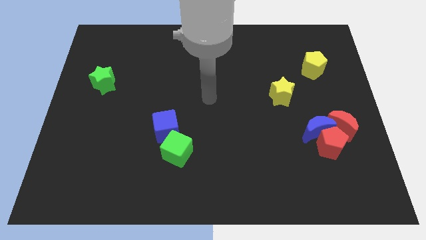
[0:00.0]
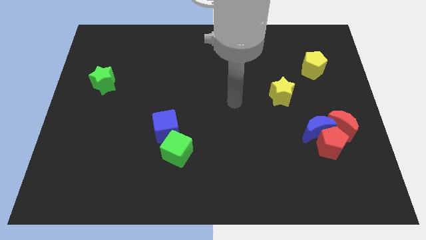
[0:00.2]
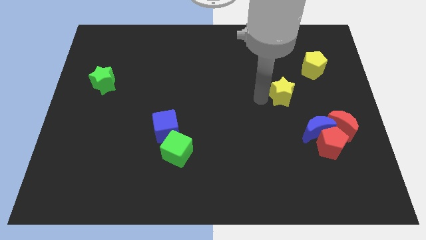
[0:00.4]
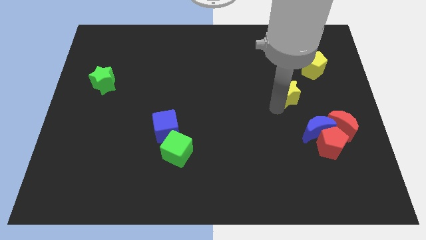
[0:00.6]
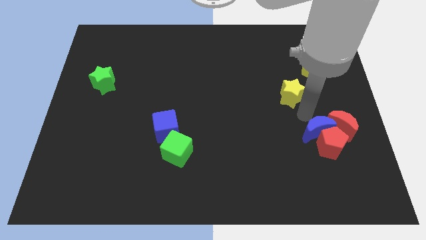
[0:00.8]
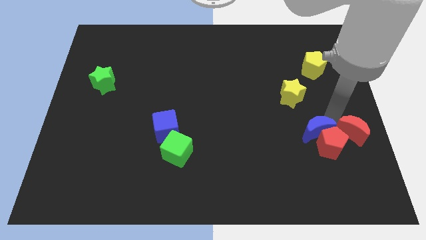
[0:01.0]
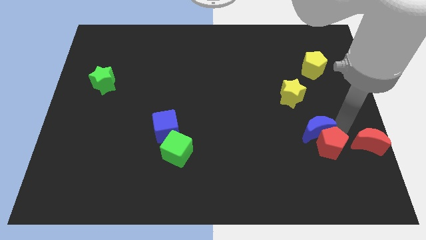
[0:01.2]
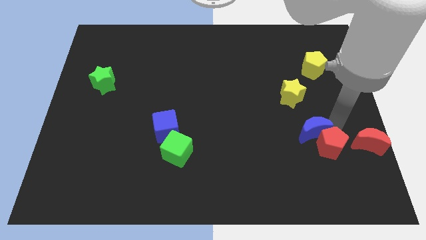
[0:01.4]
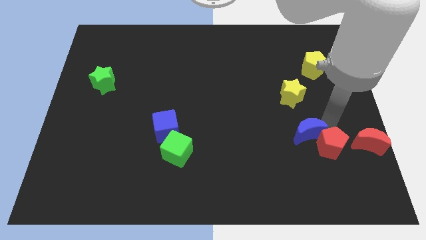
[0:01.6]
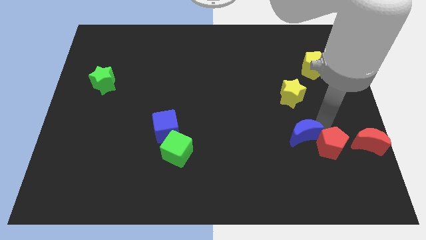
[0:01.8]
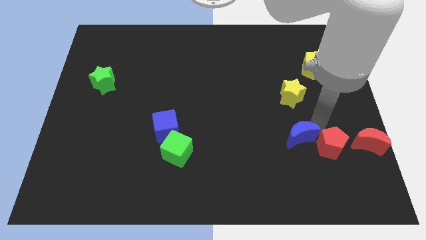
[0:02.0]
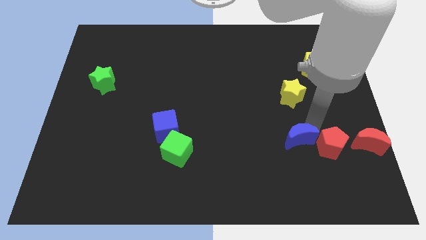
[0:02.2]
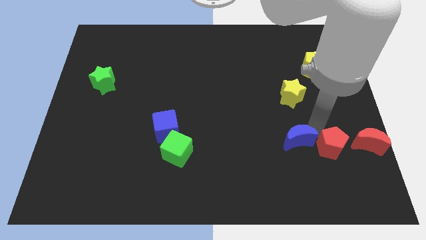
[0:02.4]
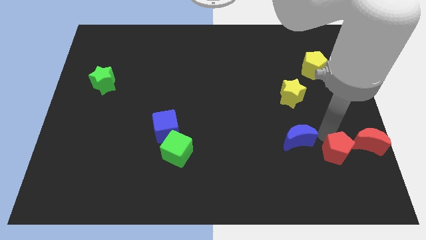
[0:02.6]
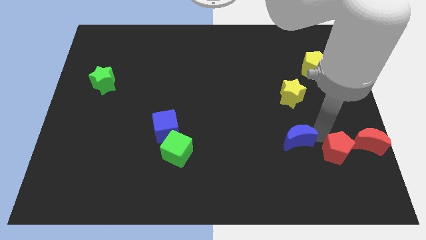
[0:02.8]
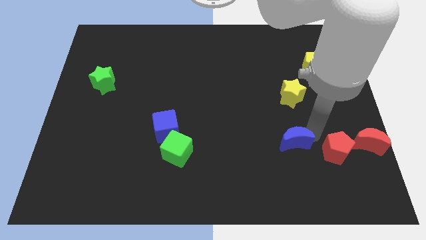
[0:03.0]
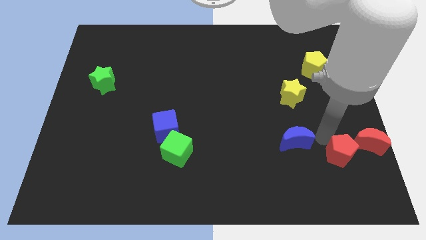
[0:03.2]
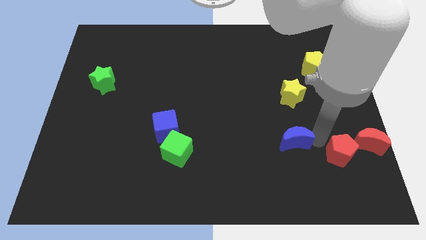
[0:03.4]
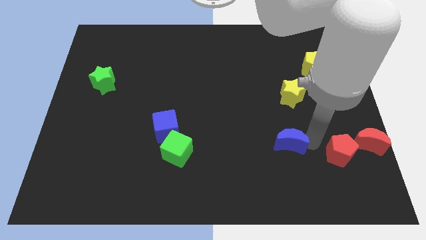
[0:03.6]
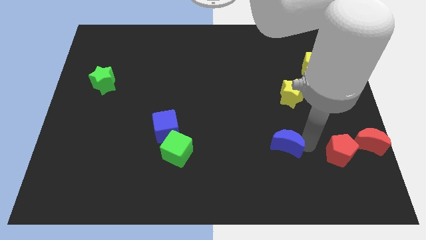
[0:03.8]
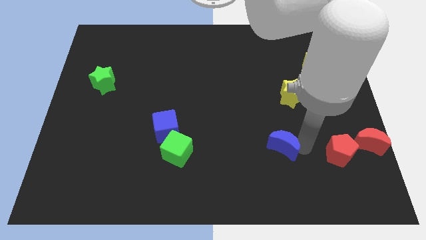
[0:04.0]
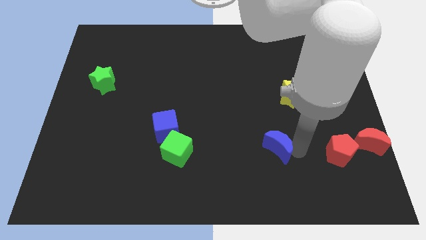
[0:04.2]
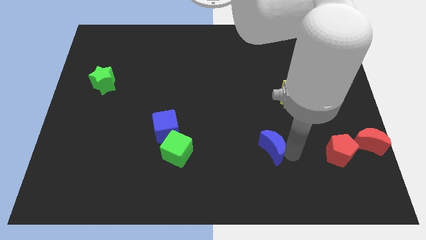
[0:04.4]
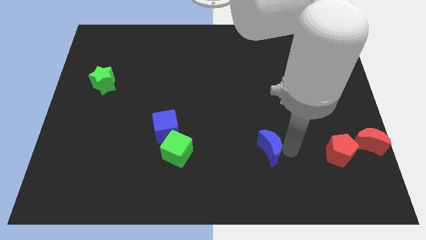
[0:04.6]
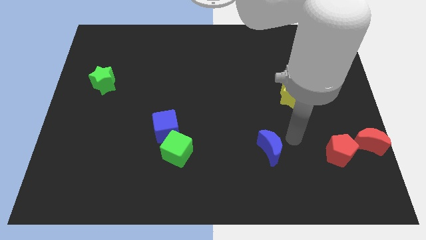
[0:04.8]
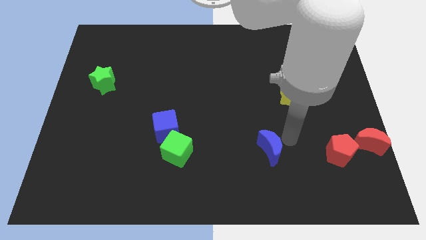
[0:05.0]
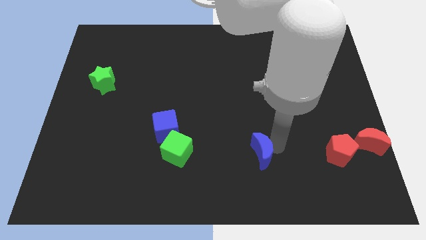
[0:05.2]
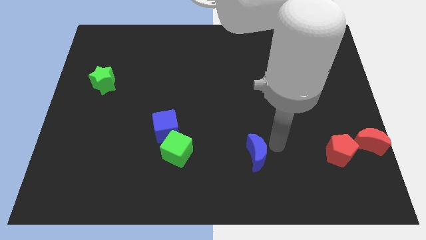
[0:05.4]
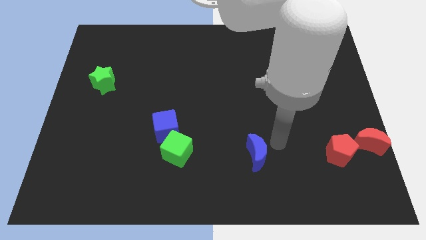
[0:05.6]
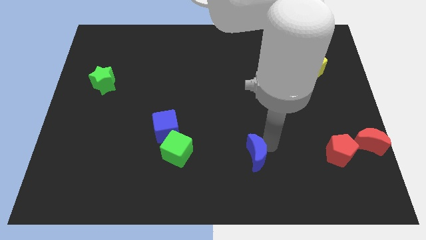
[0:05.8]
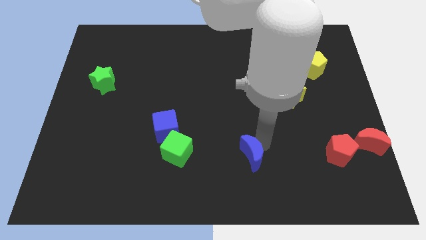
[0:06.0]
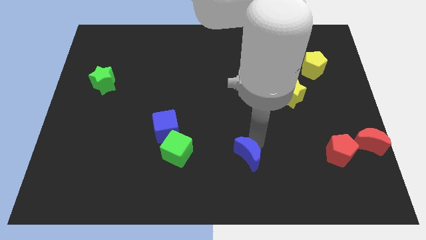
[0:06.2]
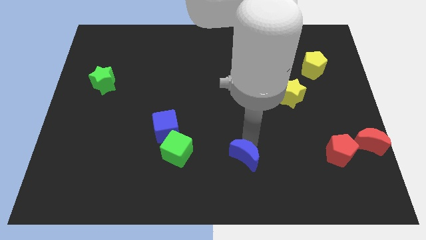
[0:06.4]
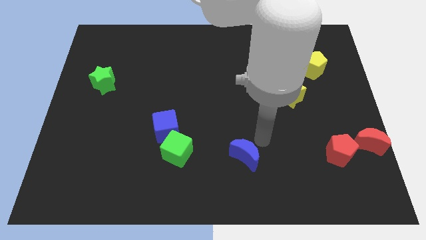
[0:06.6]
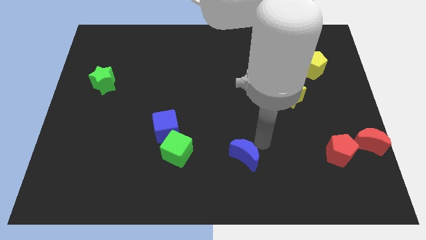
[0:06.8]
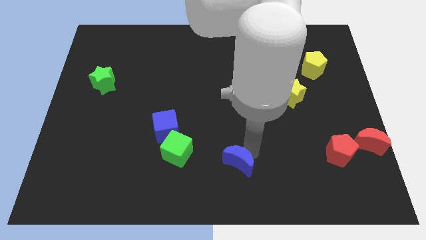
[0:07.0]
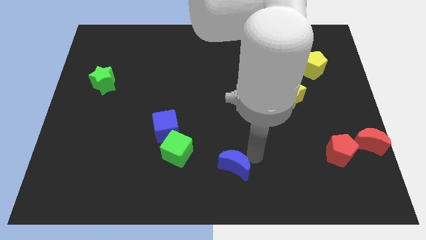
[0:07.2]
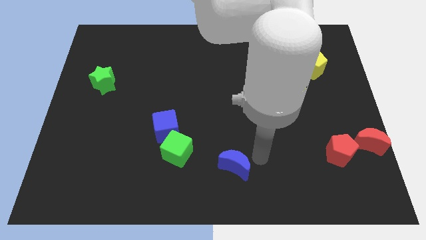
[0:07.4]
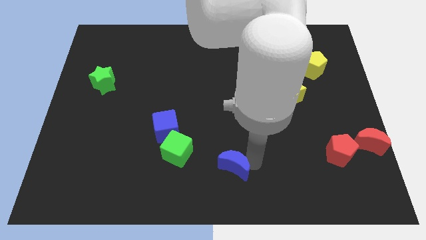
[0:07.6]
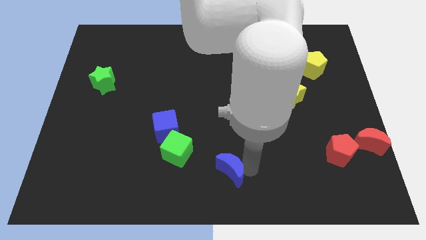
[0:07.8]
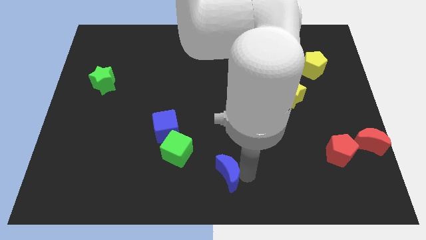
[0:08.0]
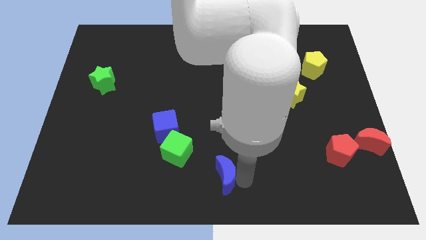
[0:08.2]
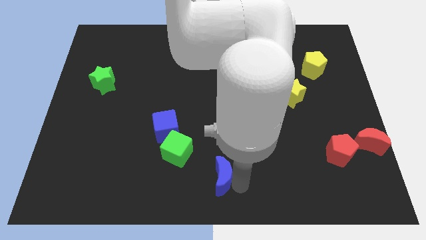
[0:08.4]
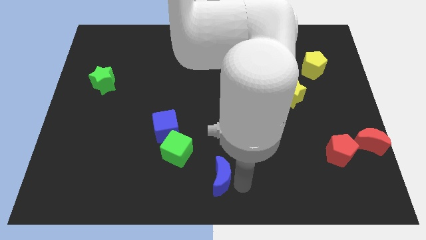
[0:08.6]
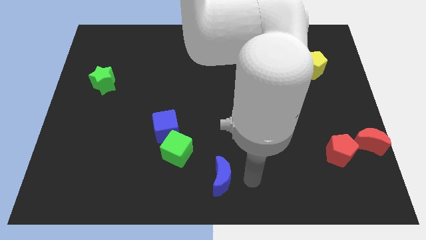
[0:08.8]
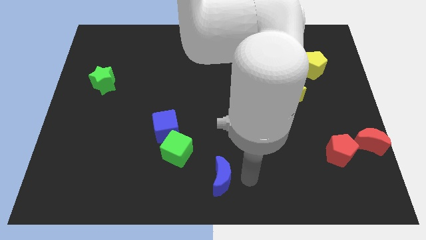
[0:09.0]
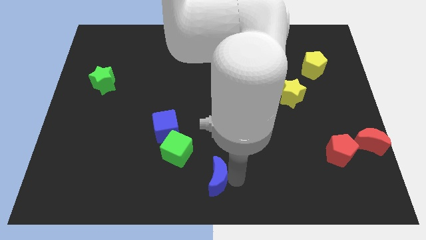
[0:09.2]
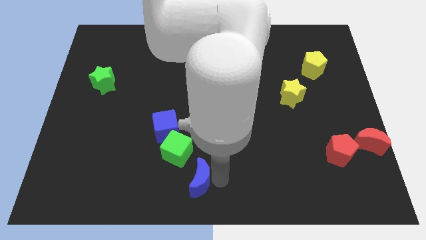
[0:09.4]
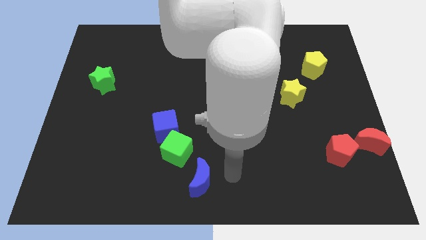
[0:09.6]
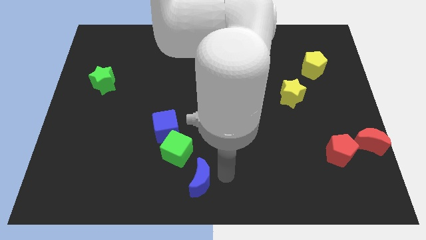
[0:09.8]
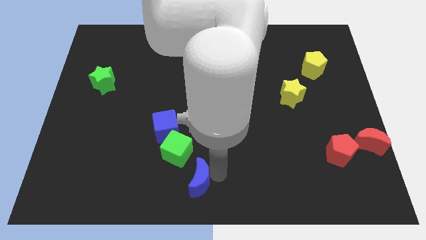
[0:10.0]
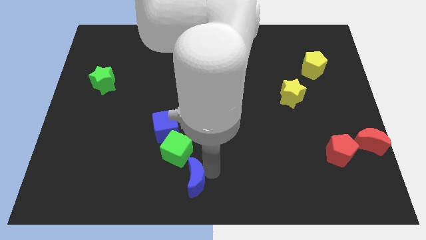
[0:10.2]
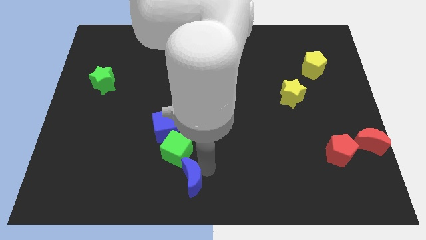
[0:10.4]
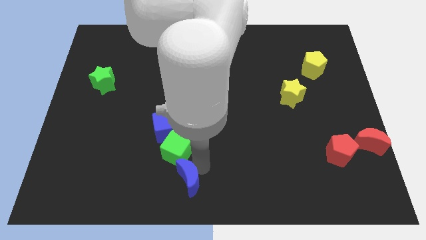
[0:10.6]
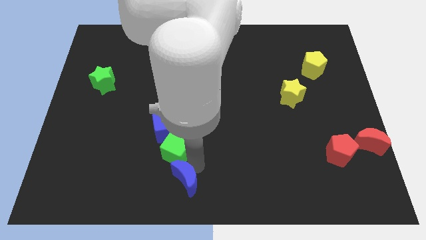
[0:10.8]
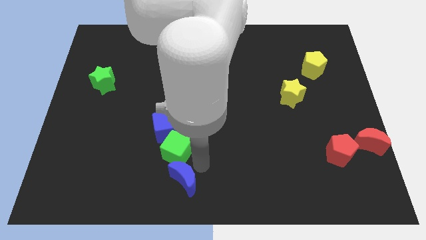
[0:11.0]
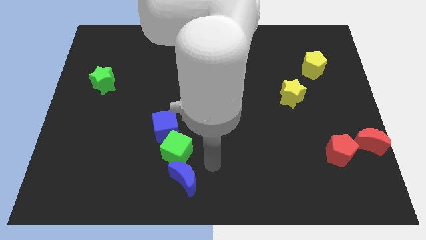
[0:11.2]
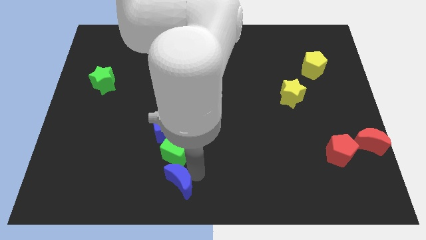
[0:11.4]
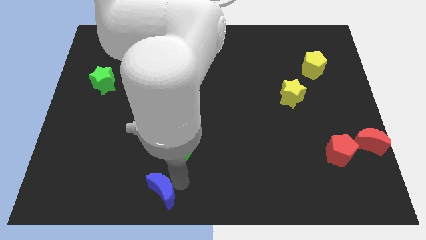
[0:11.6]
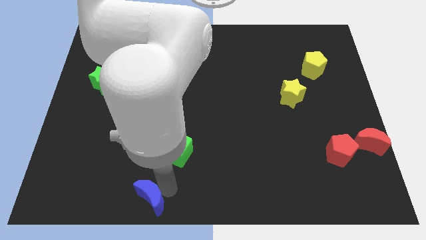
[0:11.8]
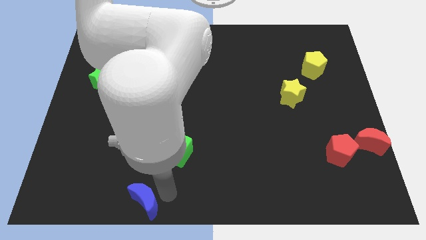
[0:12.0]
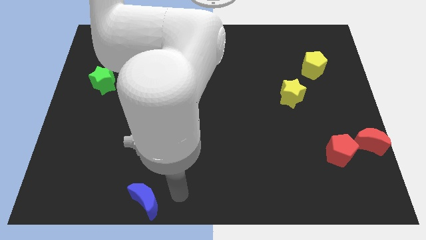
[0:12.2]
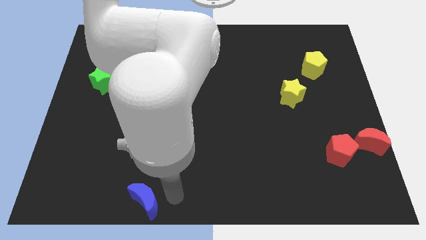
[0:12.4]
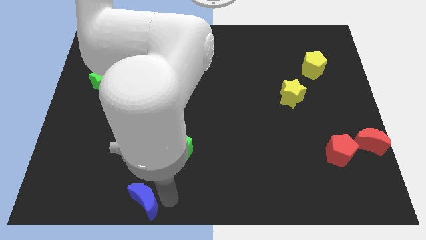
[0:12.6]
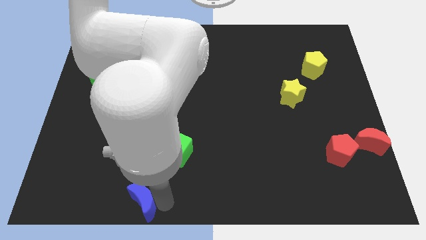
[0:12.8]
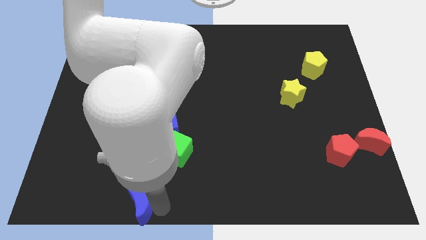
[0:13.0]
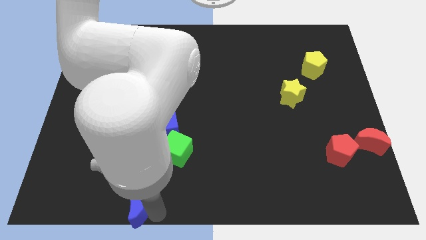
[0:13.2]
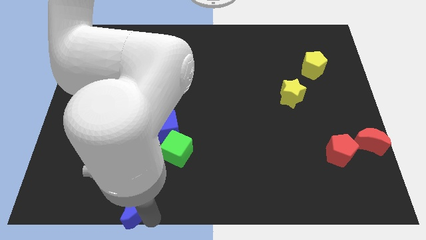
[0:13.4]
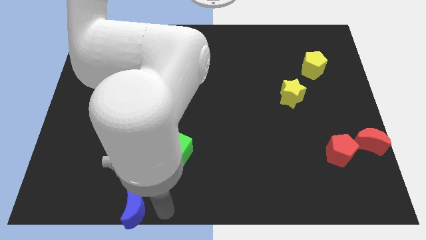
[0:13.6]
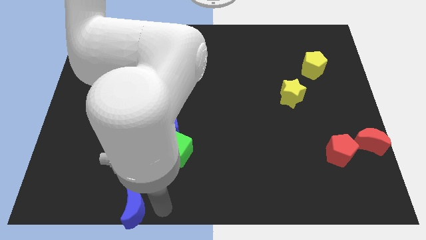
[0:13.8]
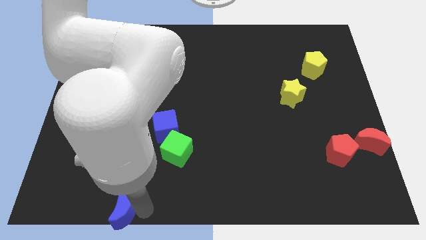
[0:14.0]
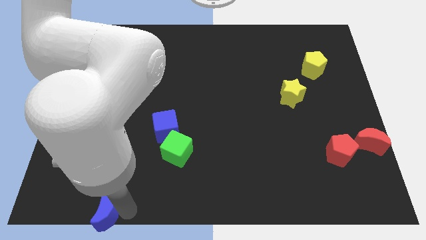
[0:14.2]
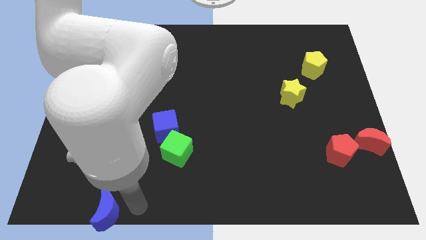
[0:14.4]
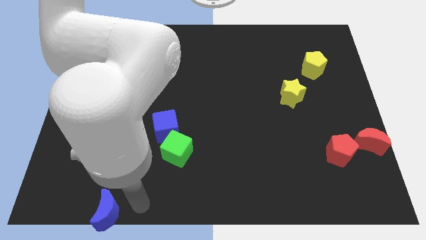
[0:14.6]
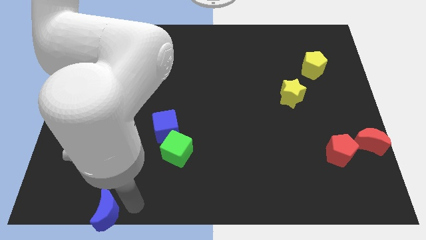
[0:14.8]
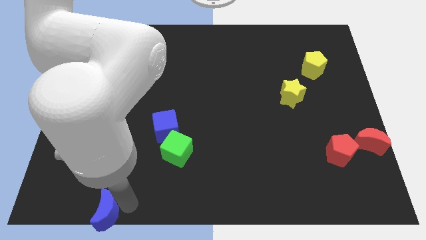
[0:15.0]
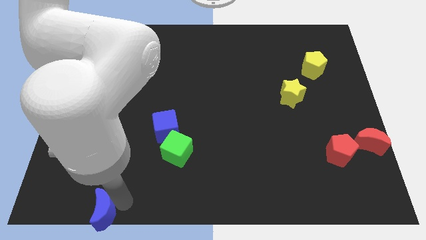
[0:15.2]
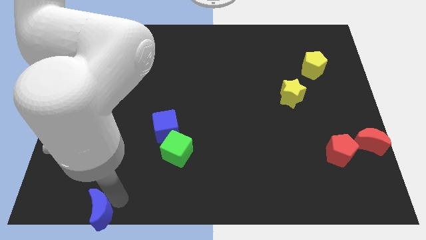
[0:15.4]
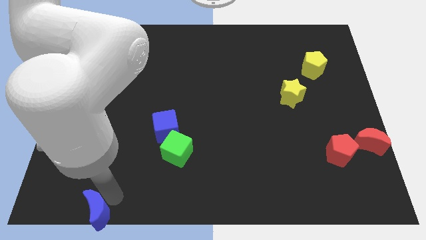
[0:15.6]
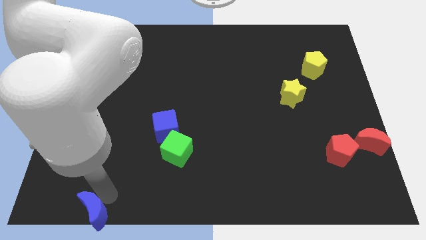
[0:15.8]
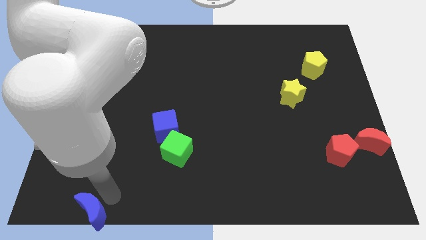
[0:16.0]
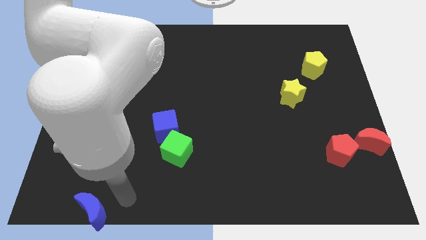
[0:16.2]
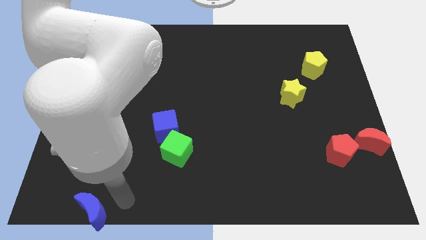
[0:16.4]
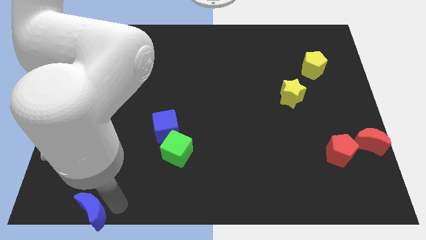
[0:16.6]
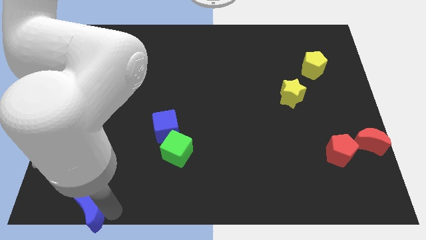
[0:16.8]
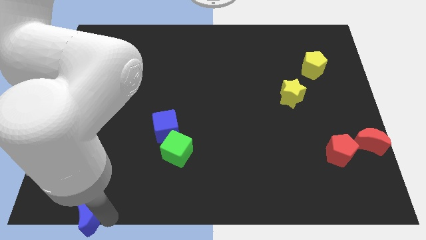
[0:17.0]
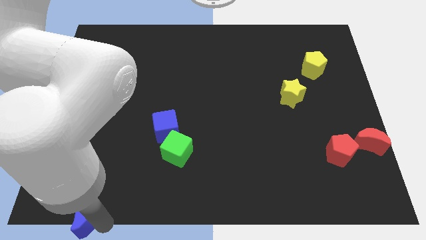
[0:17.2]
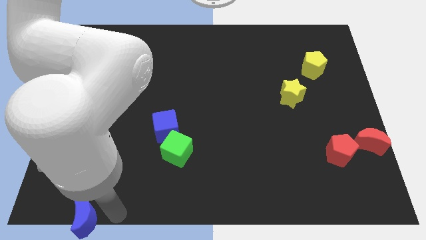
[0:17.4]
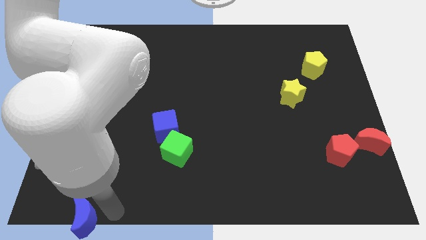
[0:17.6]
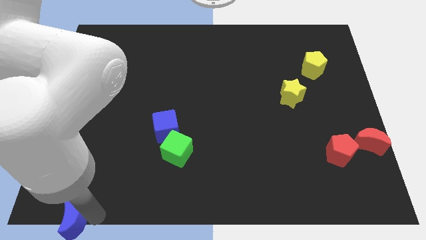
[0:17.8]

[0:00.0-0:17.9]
move the blue moon to the lower left corner
